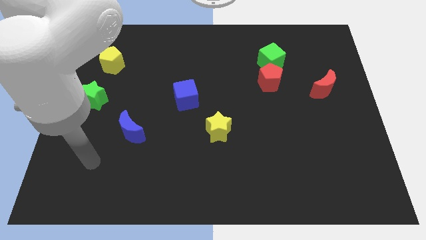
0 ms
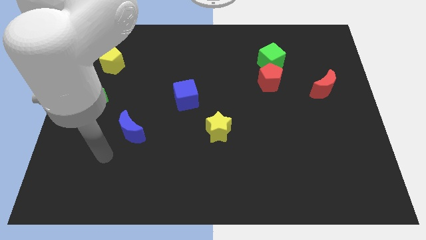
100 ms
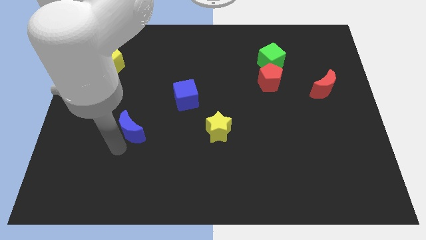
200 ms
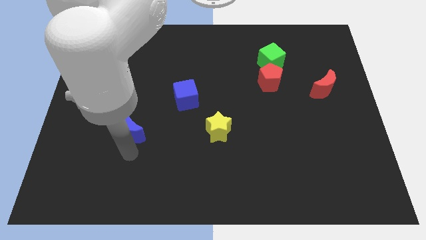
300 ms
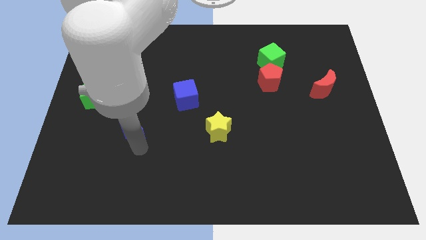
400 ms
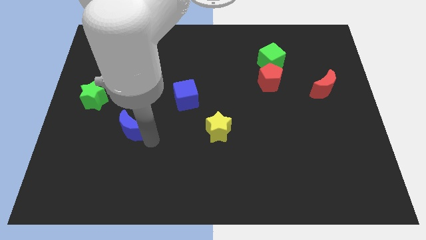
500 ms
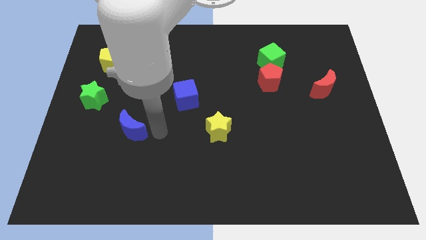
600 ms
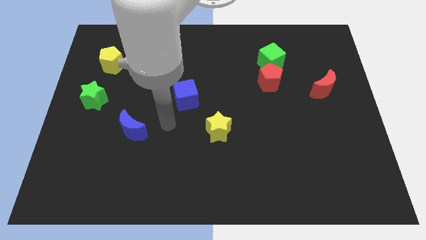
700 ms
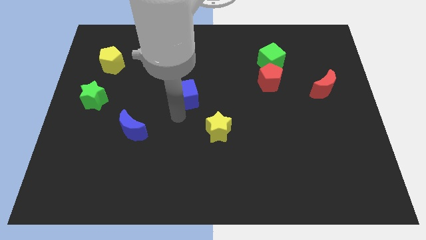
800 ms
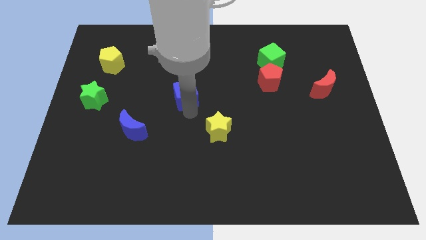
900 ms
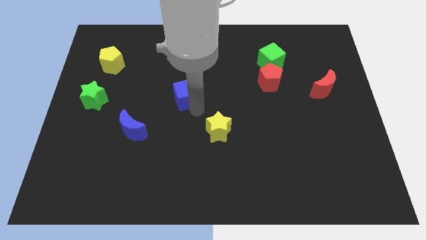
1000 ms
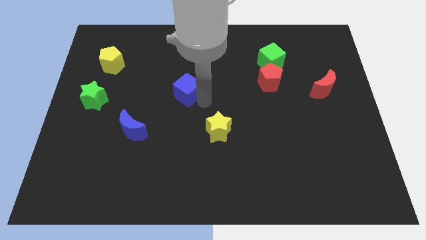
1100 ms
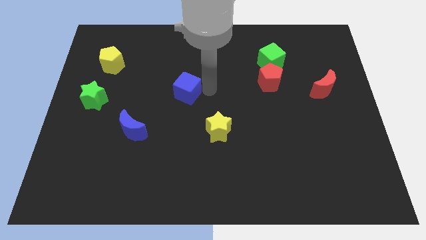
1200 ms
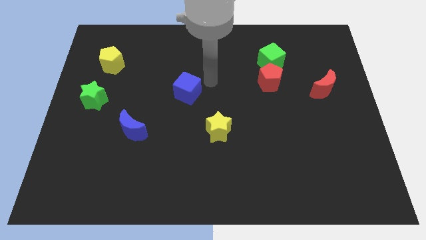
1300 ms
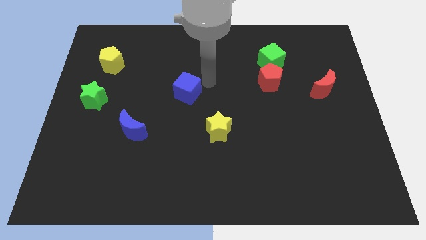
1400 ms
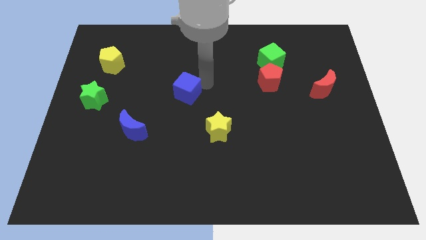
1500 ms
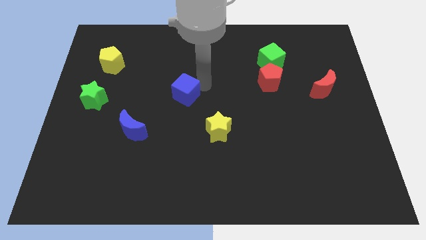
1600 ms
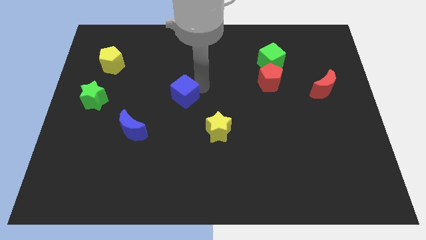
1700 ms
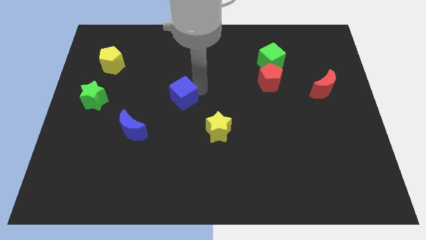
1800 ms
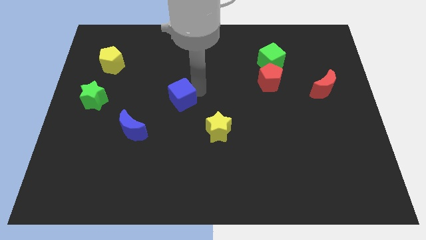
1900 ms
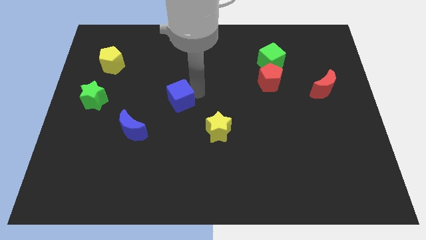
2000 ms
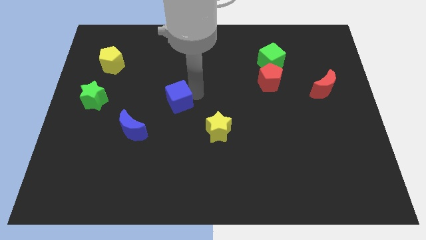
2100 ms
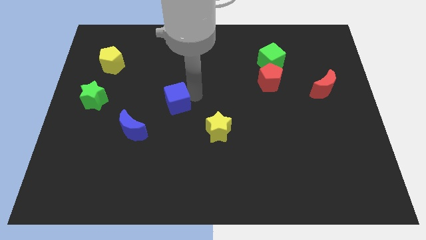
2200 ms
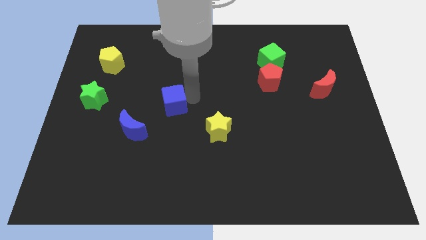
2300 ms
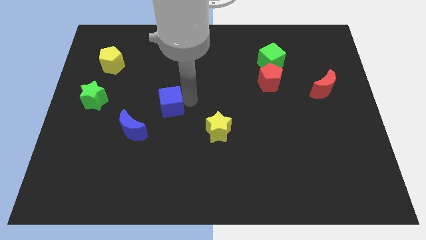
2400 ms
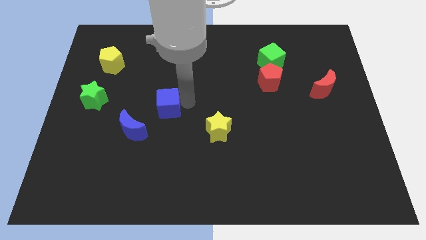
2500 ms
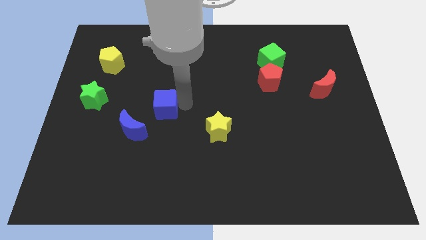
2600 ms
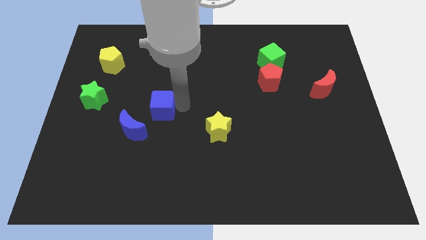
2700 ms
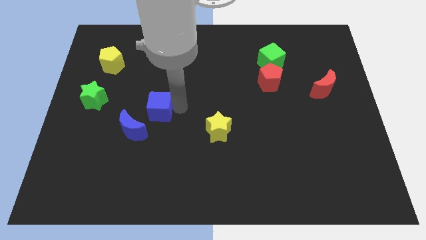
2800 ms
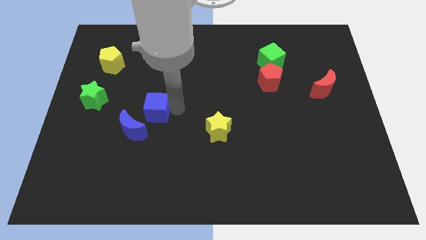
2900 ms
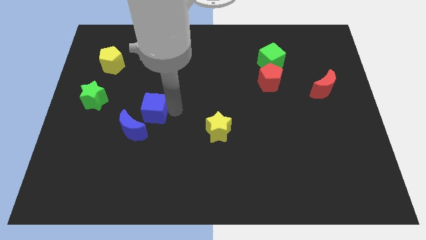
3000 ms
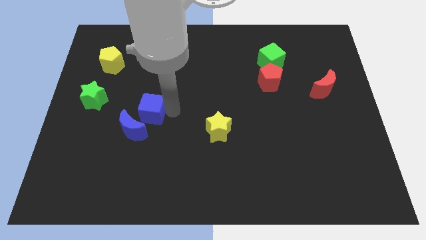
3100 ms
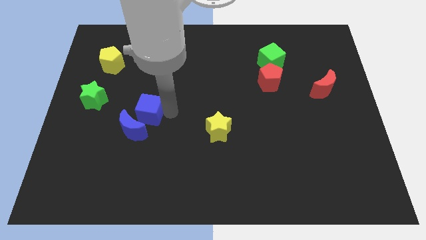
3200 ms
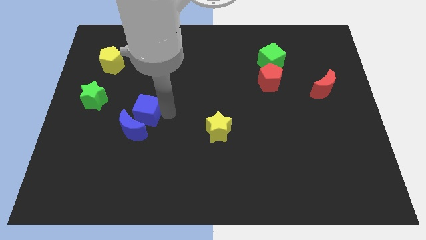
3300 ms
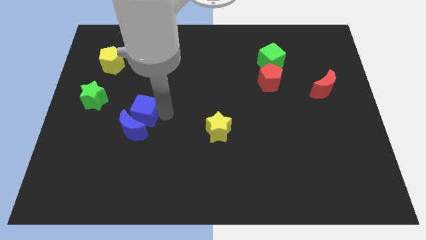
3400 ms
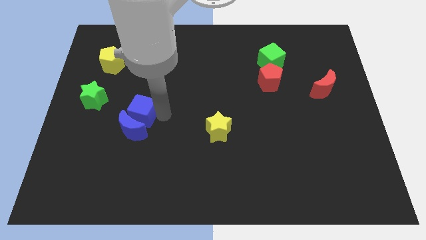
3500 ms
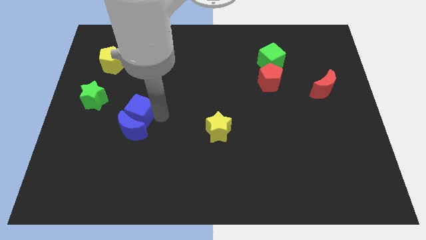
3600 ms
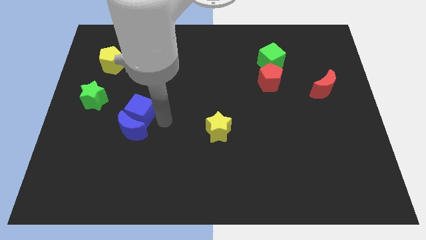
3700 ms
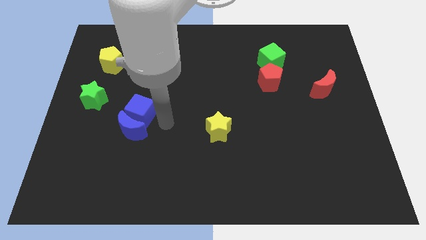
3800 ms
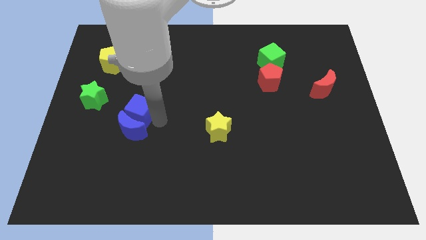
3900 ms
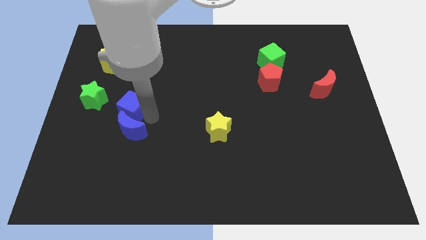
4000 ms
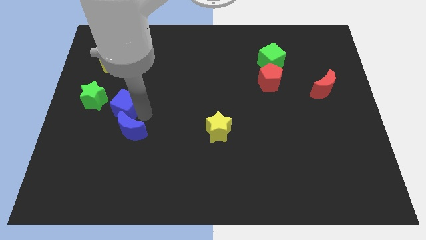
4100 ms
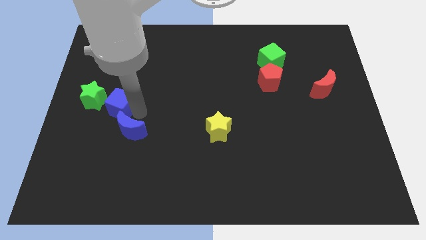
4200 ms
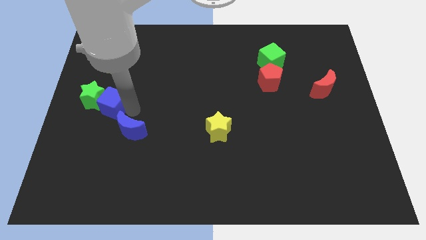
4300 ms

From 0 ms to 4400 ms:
push the blue cube towards the green star

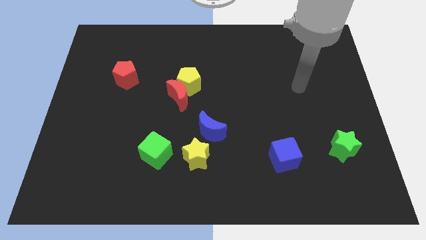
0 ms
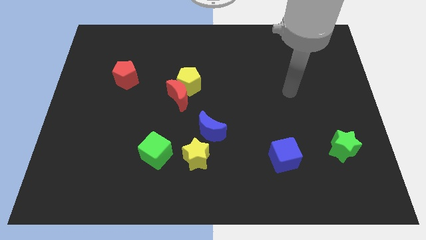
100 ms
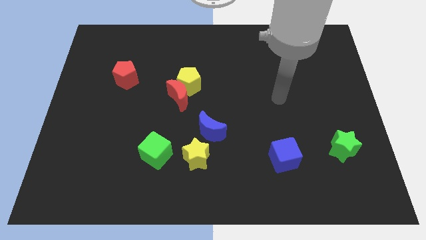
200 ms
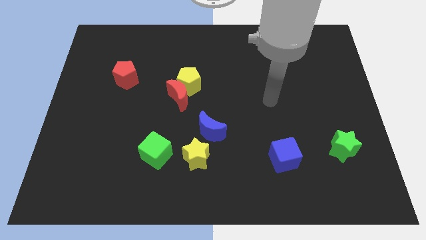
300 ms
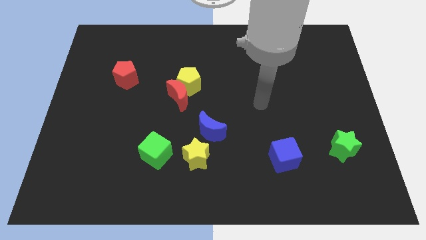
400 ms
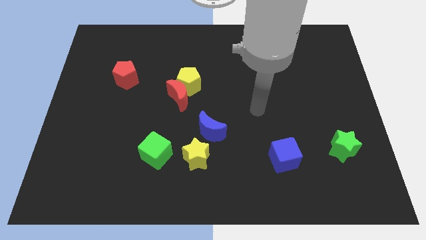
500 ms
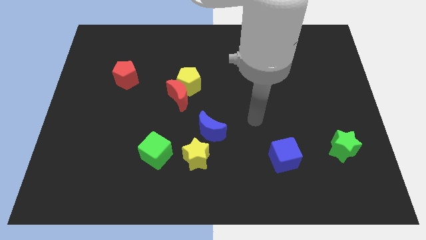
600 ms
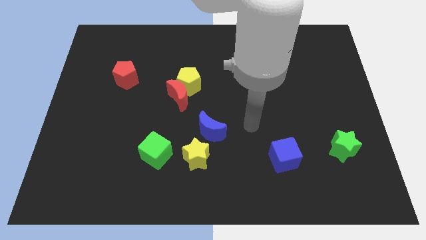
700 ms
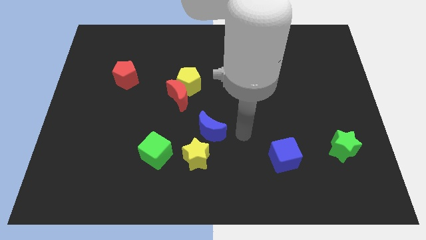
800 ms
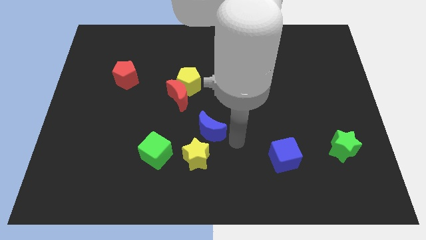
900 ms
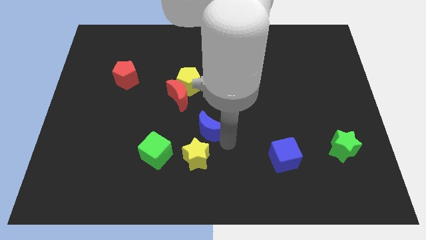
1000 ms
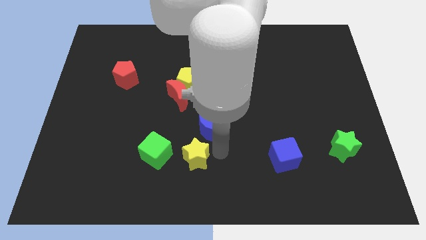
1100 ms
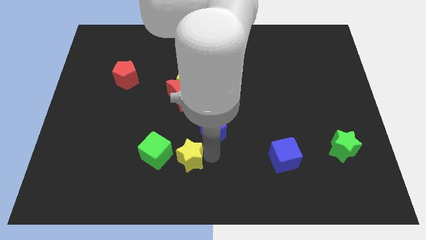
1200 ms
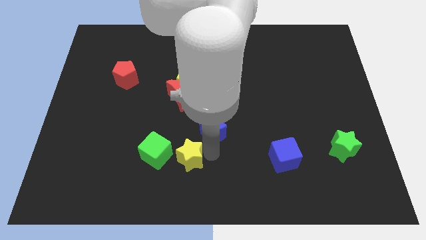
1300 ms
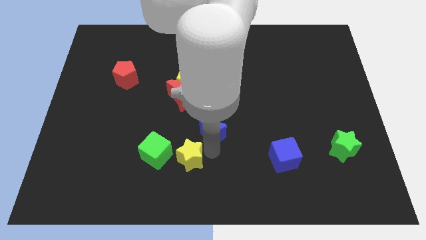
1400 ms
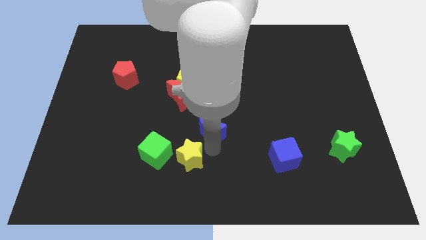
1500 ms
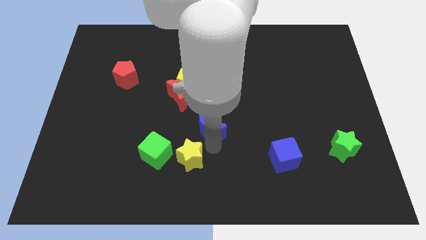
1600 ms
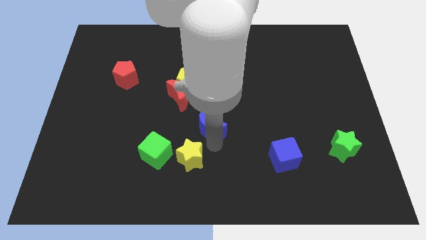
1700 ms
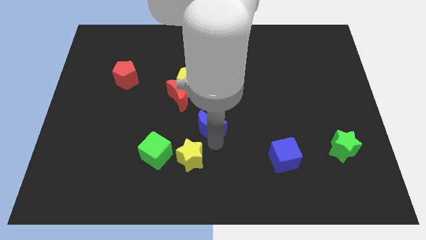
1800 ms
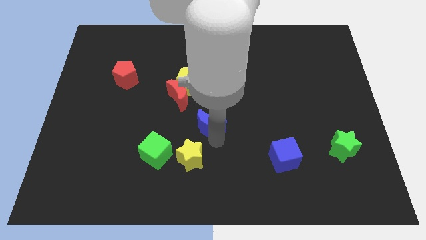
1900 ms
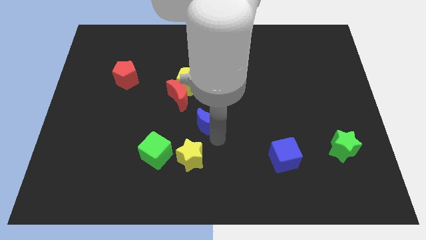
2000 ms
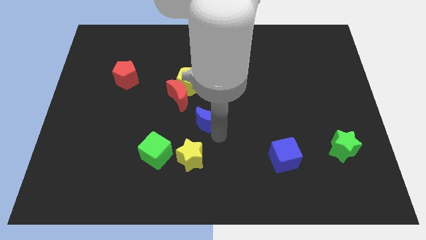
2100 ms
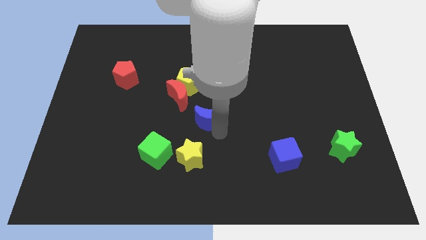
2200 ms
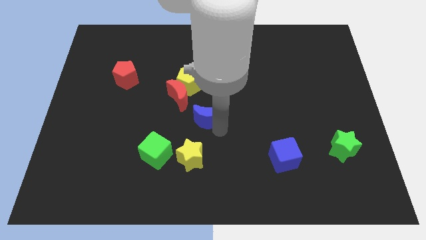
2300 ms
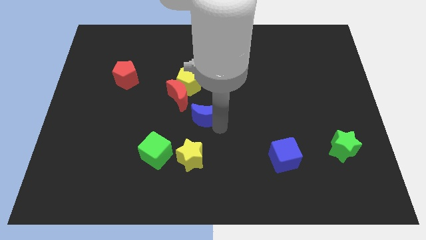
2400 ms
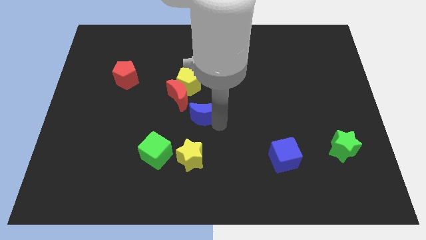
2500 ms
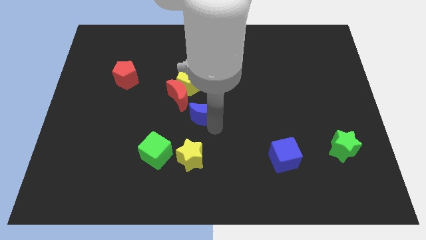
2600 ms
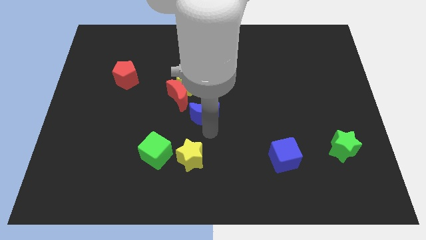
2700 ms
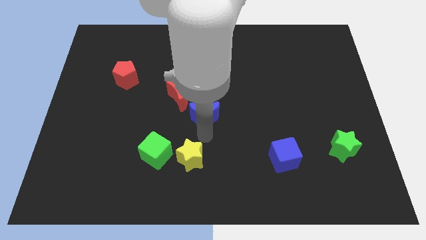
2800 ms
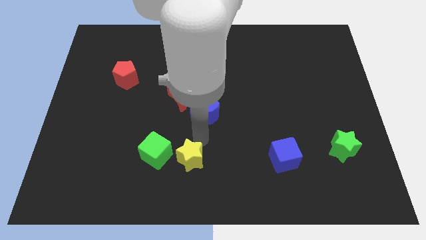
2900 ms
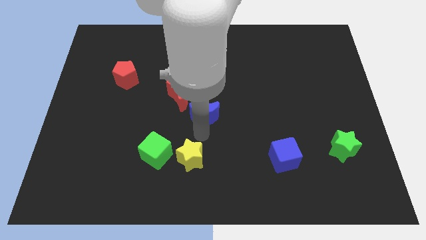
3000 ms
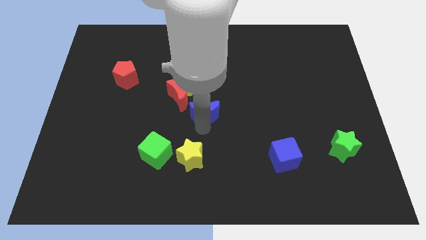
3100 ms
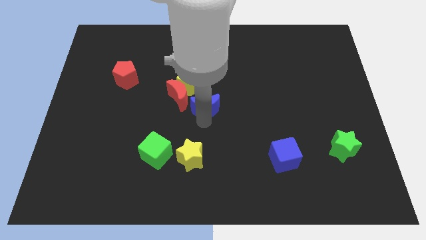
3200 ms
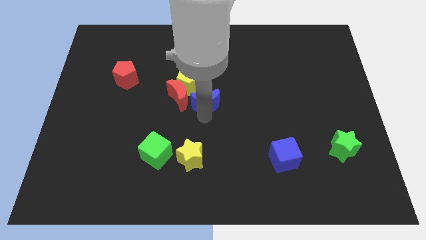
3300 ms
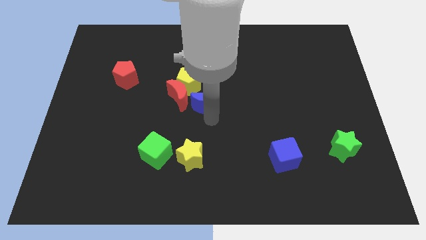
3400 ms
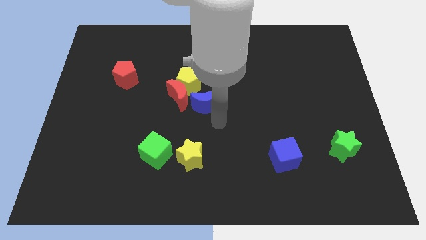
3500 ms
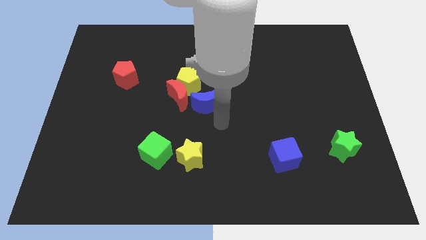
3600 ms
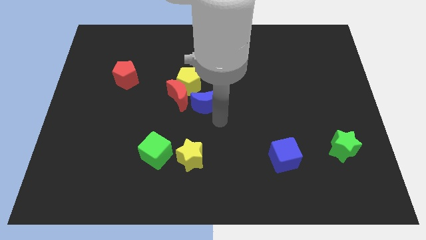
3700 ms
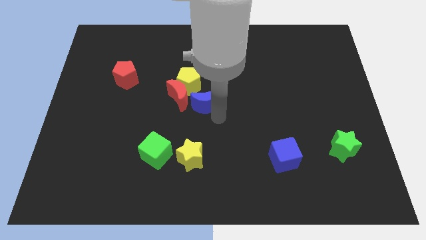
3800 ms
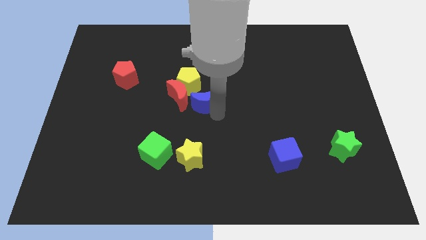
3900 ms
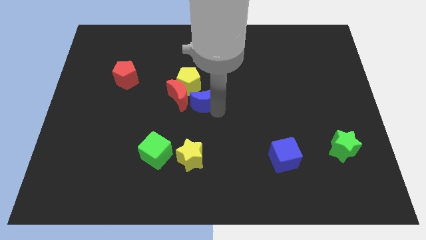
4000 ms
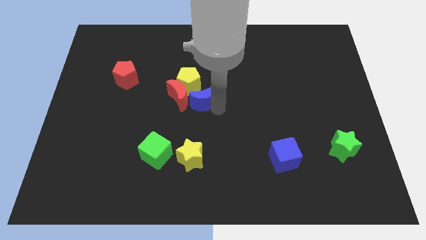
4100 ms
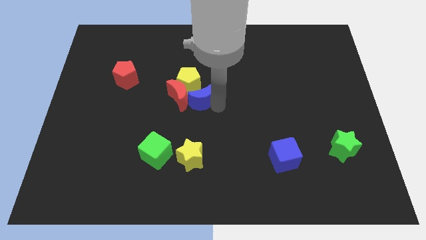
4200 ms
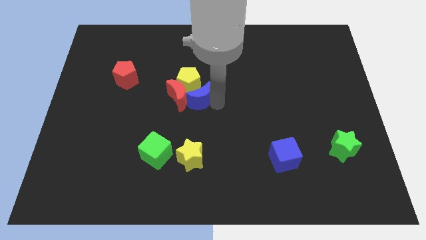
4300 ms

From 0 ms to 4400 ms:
move the blue moon towards the yellow pentagon
